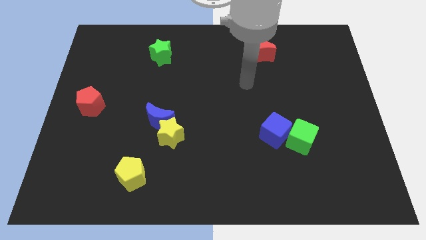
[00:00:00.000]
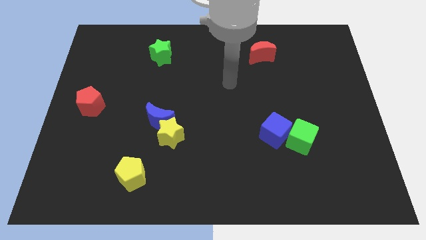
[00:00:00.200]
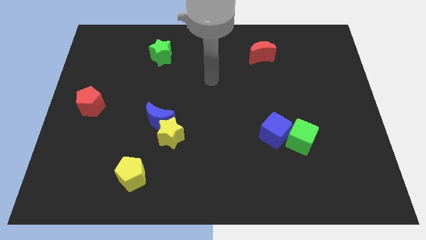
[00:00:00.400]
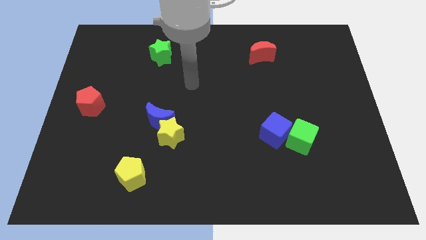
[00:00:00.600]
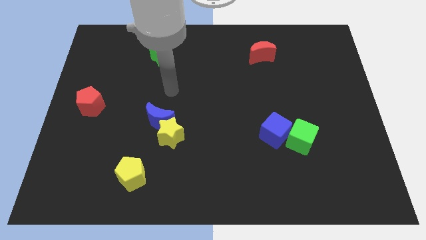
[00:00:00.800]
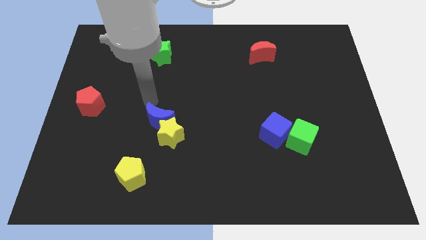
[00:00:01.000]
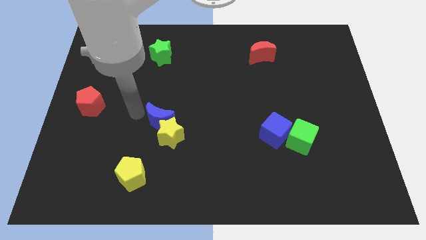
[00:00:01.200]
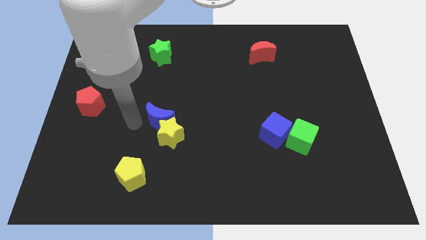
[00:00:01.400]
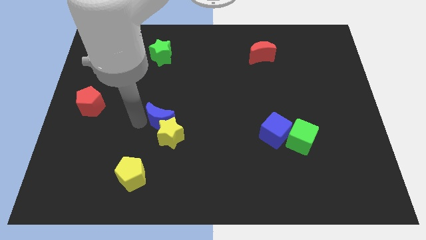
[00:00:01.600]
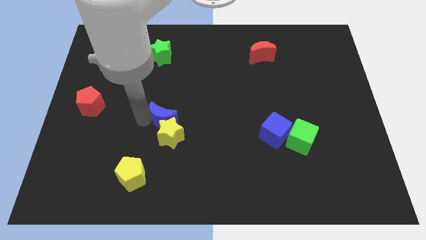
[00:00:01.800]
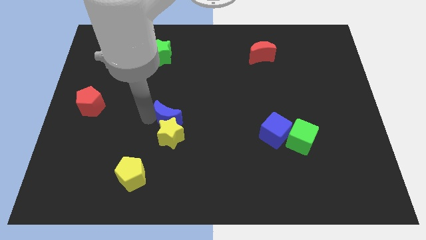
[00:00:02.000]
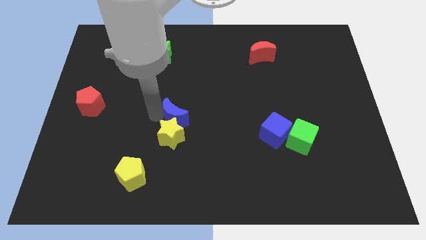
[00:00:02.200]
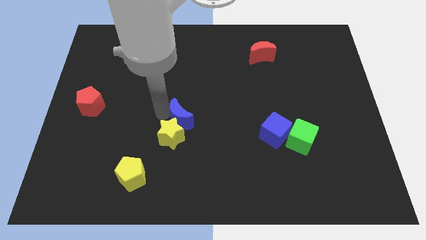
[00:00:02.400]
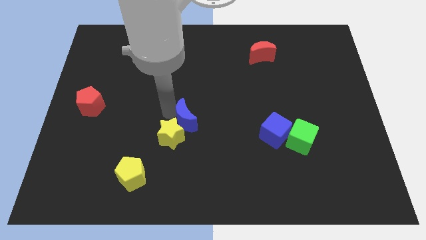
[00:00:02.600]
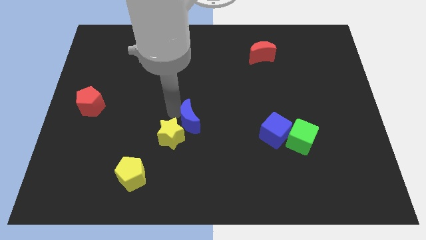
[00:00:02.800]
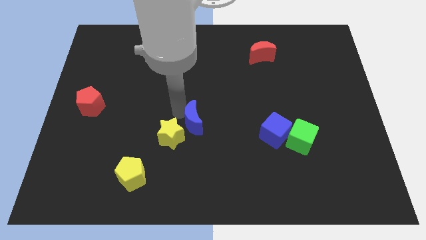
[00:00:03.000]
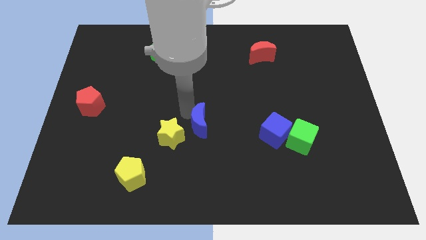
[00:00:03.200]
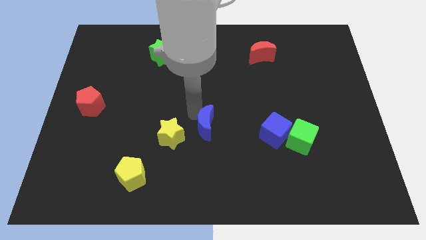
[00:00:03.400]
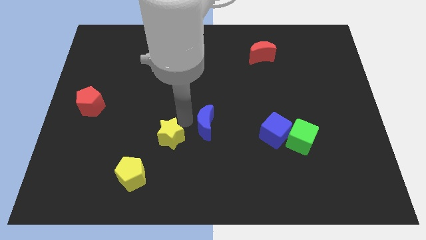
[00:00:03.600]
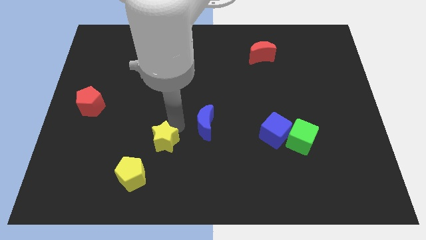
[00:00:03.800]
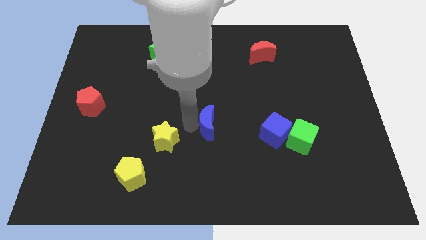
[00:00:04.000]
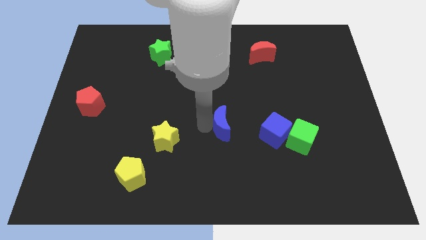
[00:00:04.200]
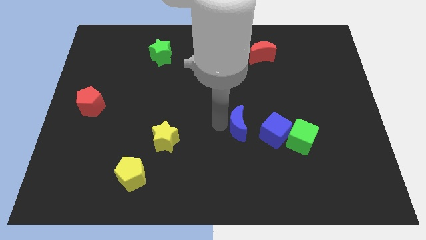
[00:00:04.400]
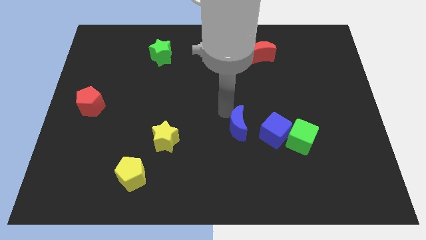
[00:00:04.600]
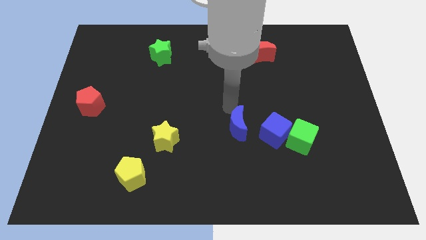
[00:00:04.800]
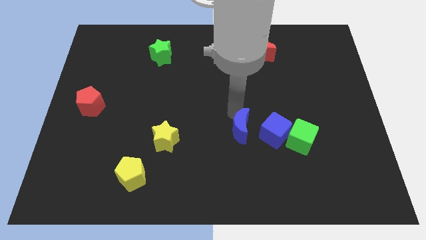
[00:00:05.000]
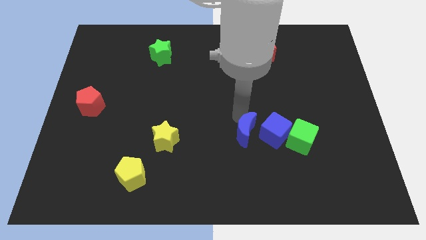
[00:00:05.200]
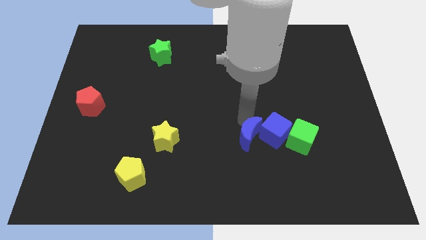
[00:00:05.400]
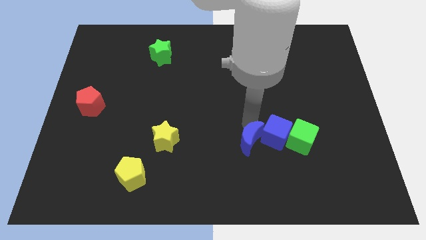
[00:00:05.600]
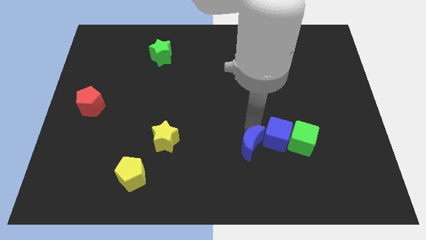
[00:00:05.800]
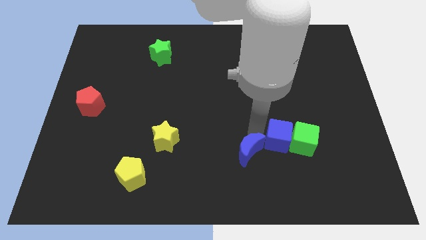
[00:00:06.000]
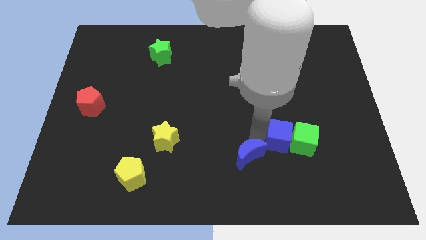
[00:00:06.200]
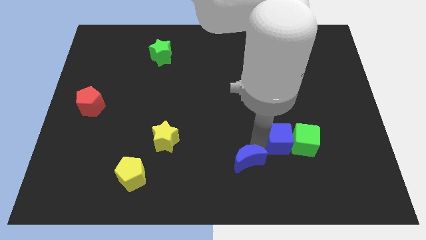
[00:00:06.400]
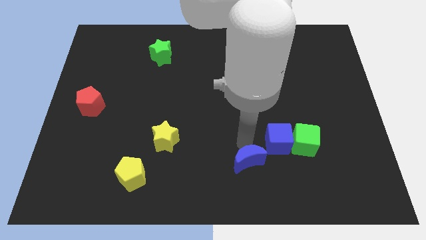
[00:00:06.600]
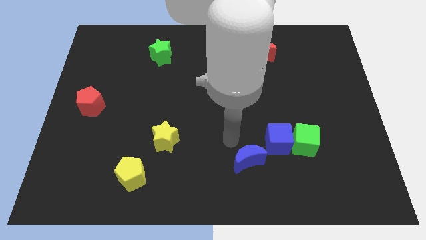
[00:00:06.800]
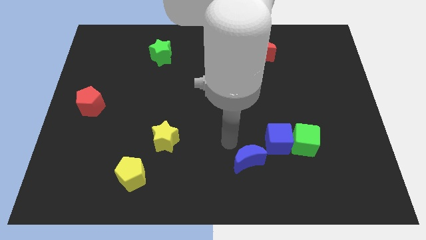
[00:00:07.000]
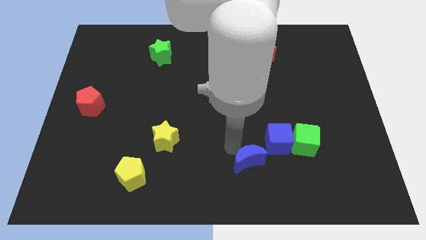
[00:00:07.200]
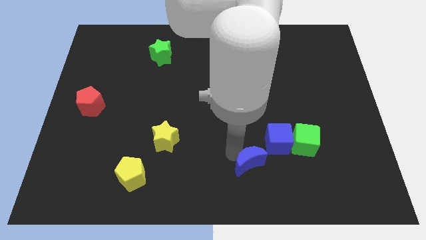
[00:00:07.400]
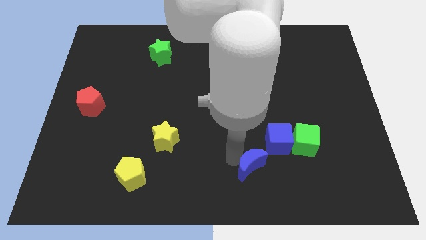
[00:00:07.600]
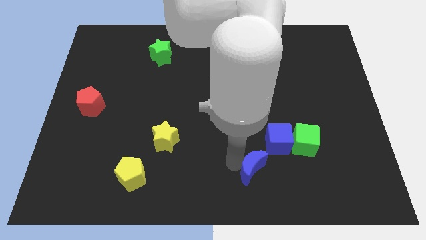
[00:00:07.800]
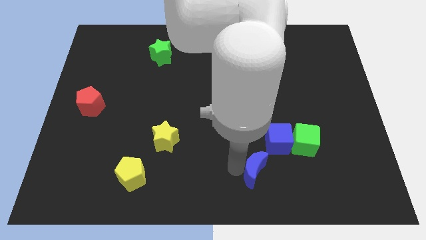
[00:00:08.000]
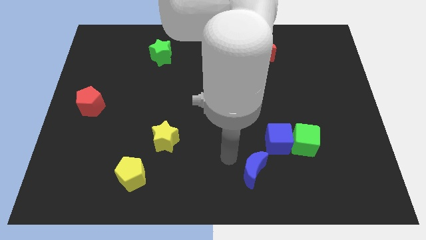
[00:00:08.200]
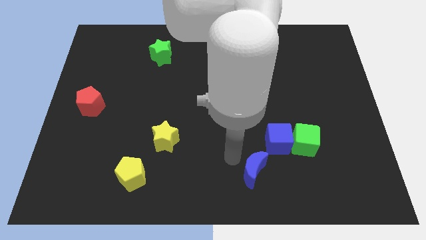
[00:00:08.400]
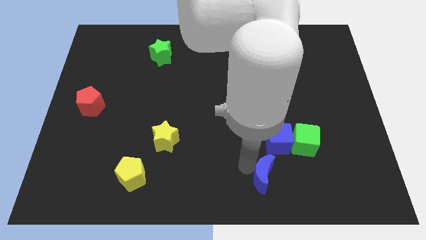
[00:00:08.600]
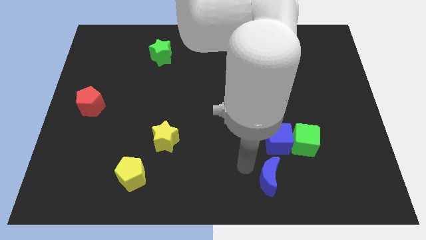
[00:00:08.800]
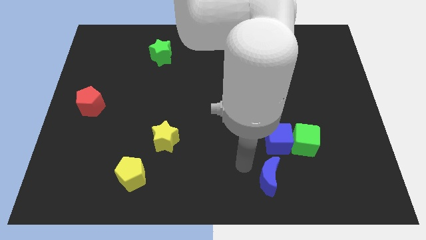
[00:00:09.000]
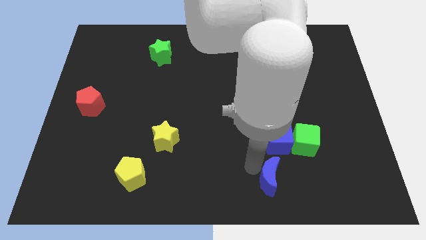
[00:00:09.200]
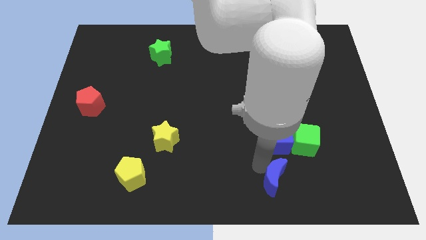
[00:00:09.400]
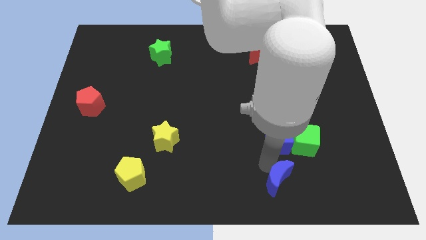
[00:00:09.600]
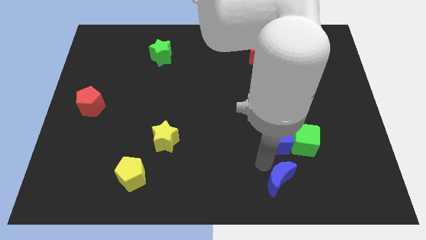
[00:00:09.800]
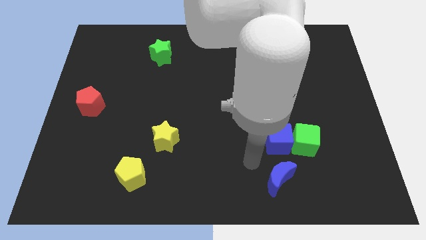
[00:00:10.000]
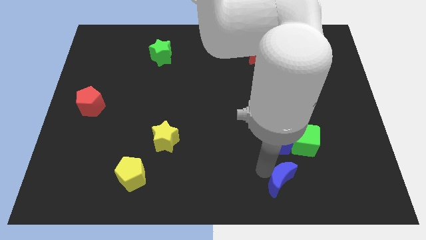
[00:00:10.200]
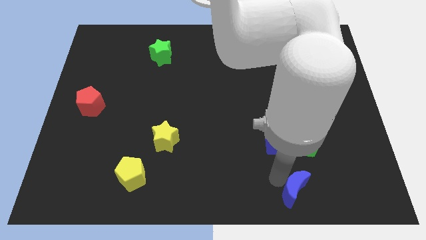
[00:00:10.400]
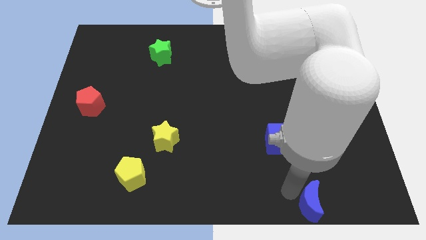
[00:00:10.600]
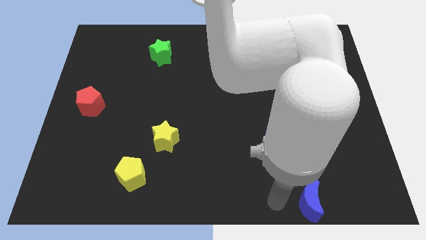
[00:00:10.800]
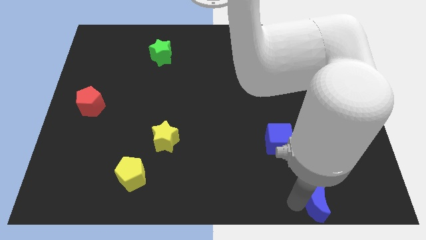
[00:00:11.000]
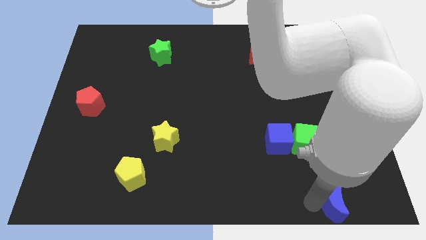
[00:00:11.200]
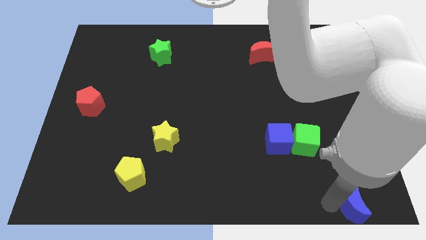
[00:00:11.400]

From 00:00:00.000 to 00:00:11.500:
move the blue moon to the bottom right

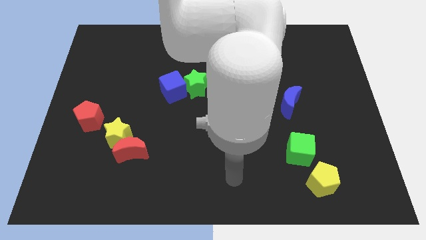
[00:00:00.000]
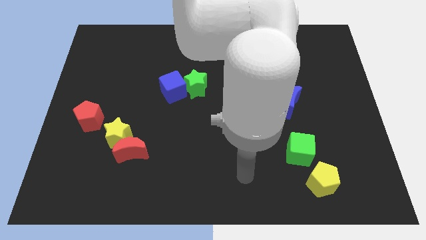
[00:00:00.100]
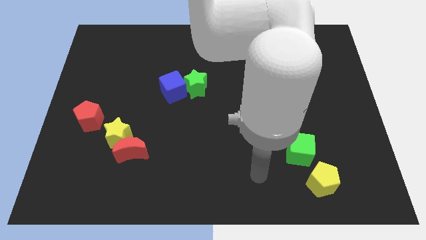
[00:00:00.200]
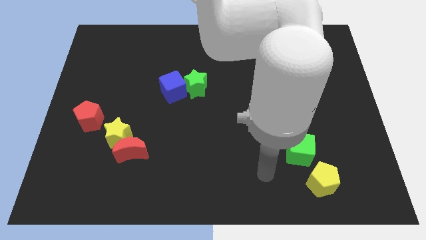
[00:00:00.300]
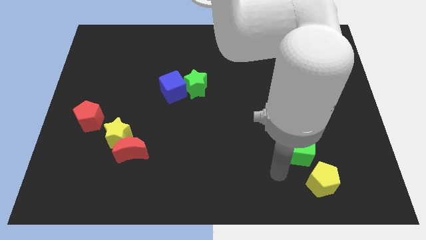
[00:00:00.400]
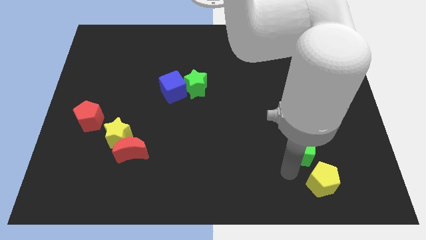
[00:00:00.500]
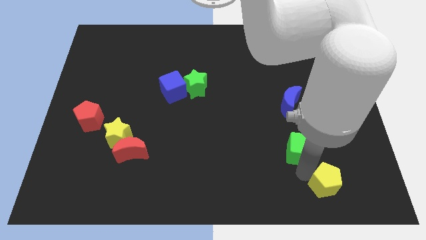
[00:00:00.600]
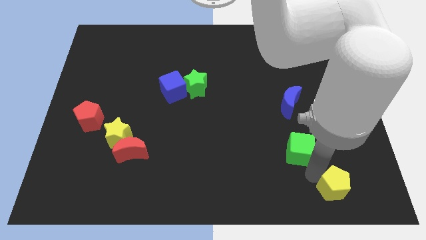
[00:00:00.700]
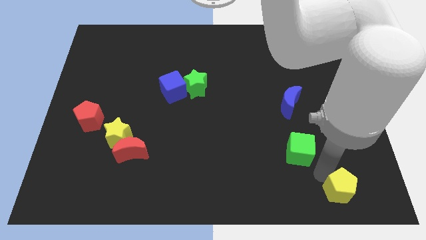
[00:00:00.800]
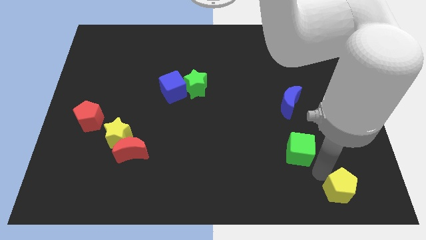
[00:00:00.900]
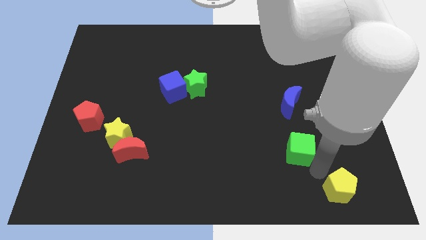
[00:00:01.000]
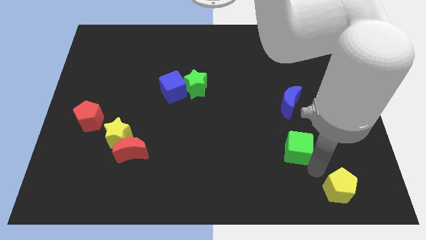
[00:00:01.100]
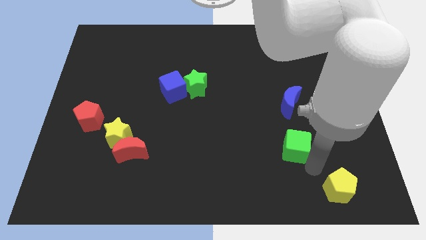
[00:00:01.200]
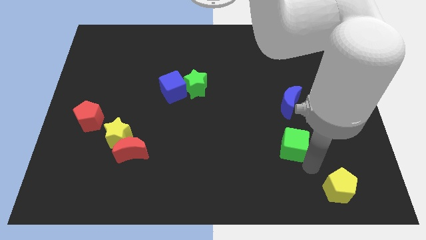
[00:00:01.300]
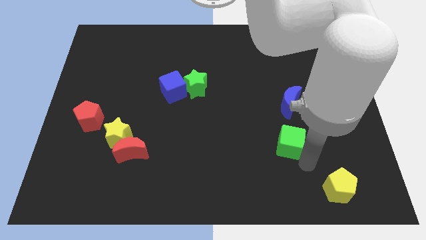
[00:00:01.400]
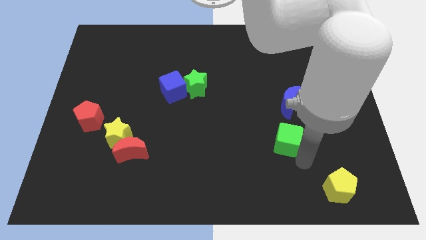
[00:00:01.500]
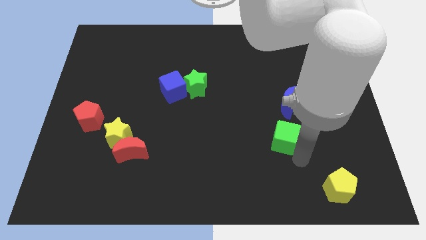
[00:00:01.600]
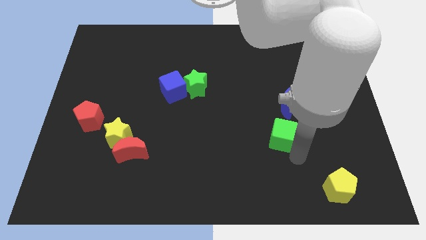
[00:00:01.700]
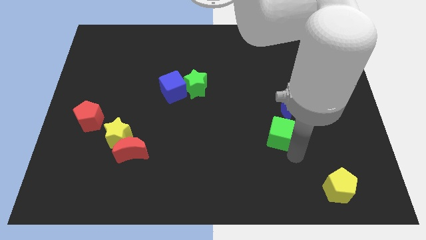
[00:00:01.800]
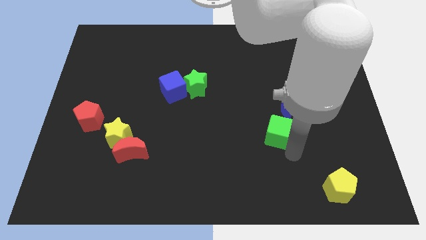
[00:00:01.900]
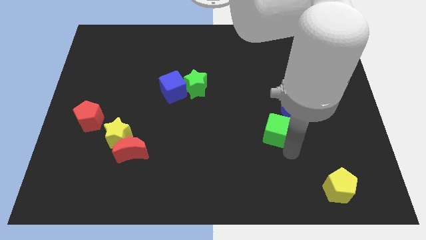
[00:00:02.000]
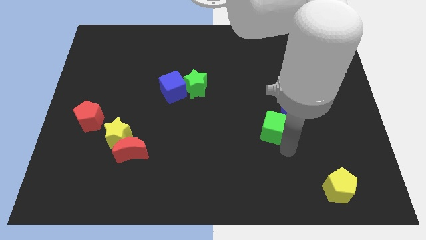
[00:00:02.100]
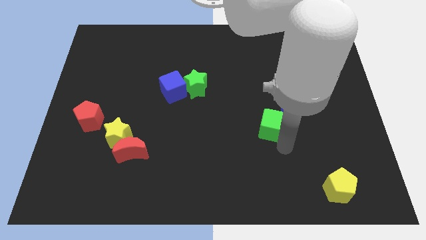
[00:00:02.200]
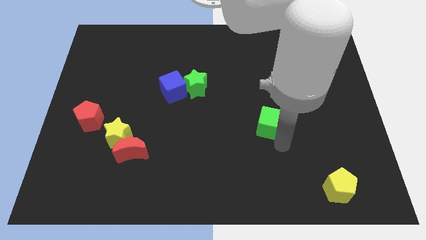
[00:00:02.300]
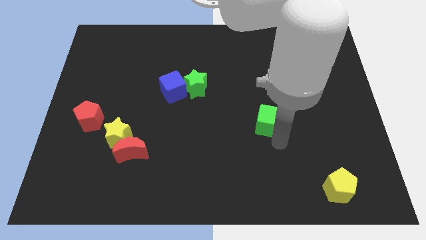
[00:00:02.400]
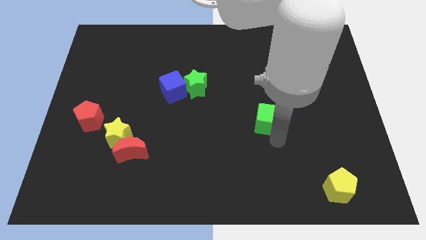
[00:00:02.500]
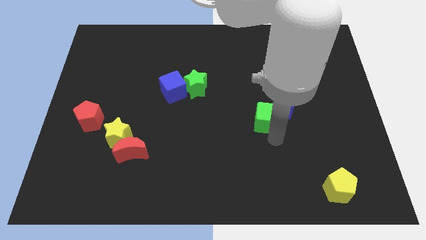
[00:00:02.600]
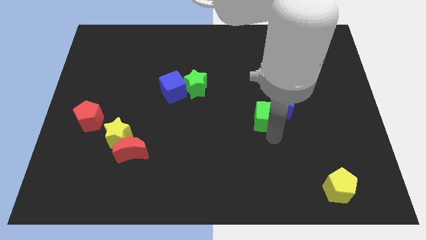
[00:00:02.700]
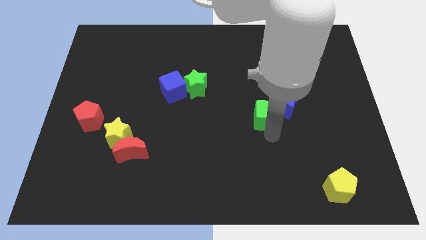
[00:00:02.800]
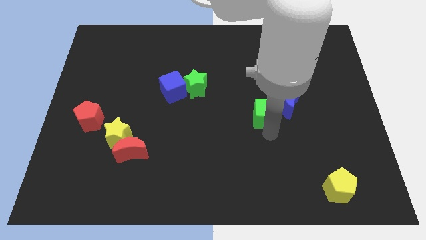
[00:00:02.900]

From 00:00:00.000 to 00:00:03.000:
move the green cube to the center of the board

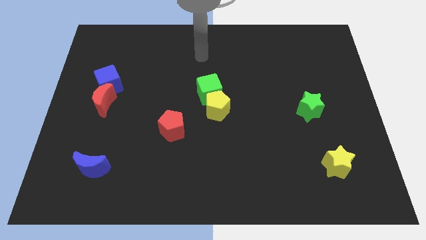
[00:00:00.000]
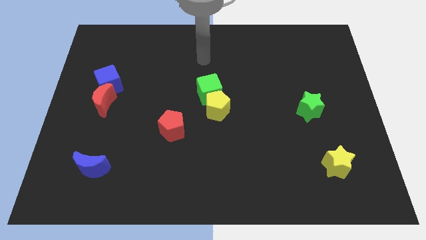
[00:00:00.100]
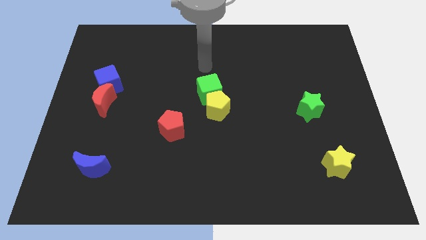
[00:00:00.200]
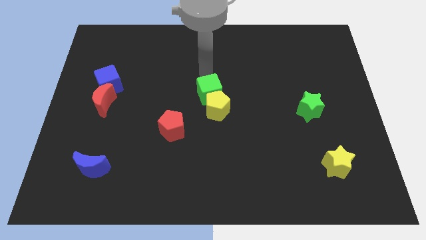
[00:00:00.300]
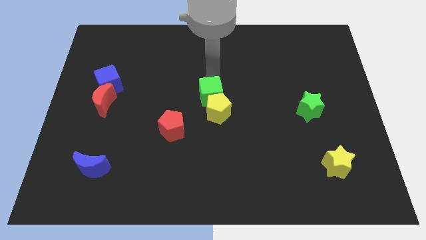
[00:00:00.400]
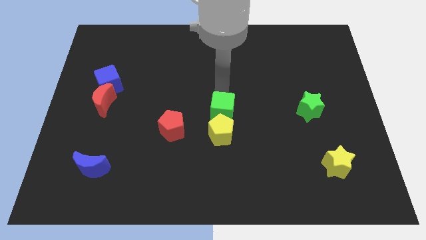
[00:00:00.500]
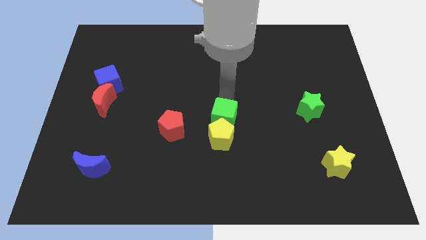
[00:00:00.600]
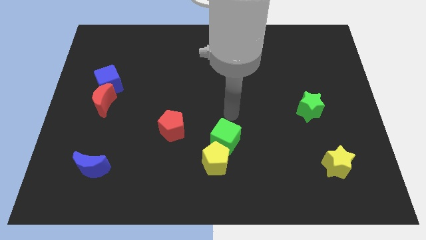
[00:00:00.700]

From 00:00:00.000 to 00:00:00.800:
move the yellow pentagon to the bottom
